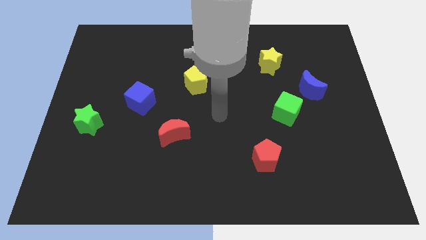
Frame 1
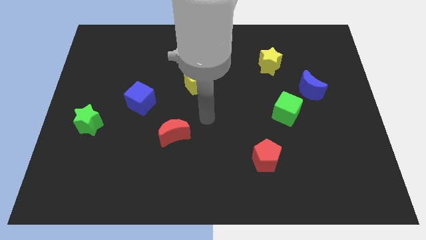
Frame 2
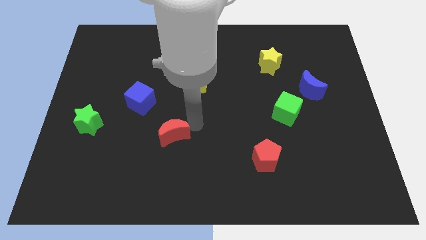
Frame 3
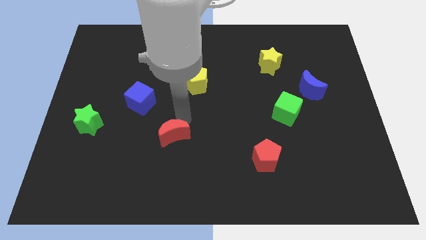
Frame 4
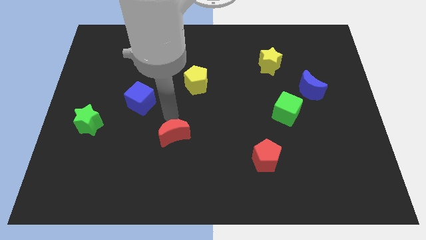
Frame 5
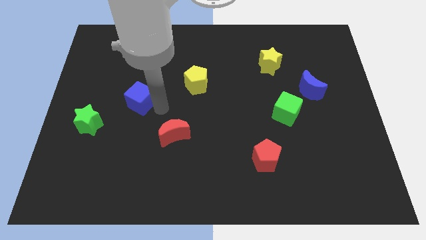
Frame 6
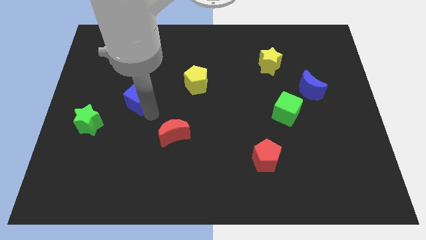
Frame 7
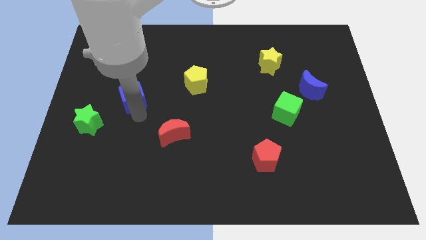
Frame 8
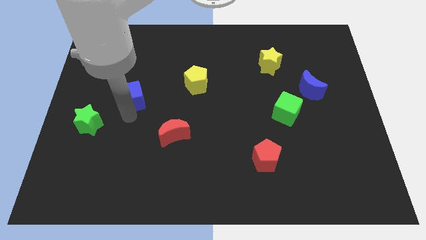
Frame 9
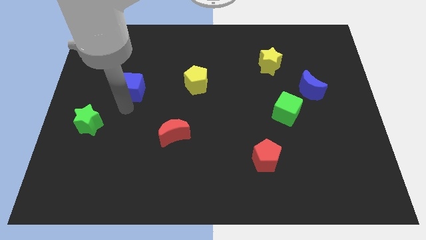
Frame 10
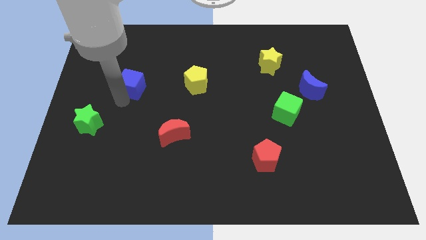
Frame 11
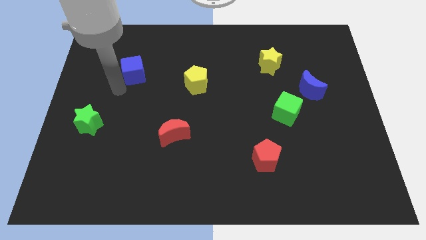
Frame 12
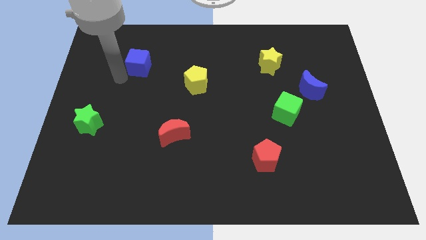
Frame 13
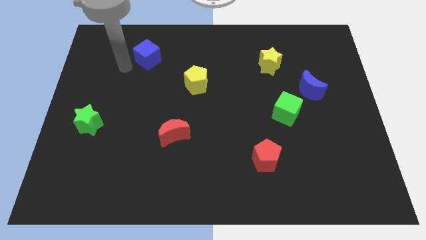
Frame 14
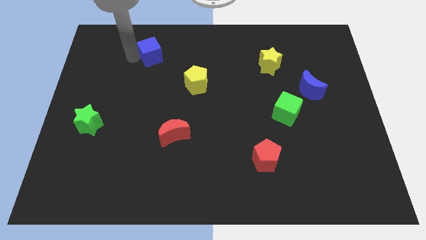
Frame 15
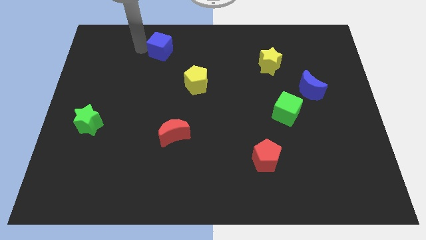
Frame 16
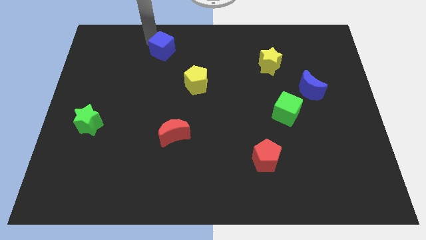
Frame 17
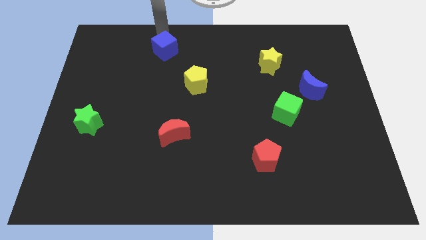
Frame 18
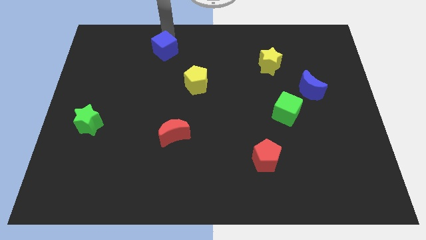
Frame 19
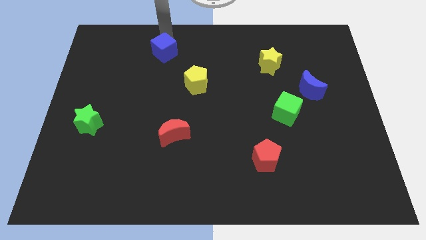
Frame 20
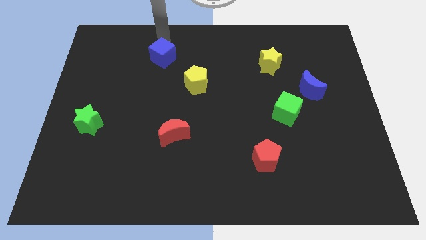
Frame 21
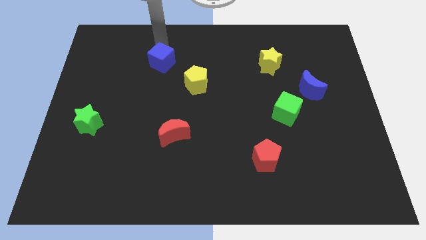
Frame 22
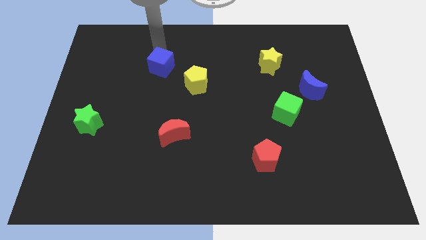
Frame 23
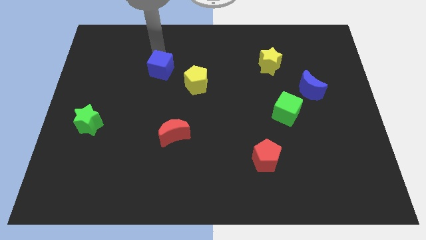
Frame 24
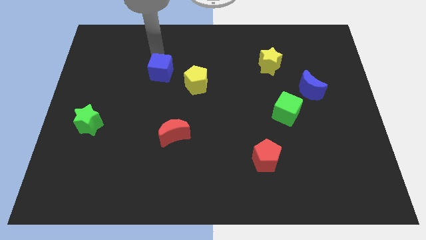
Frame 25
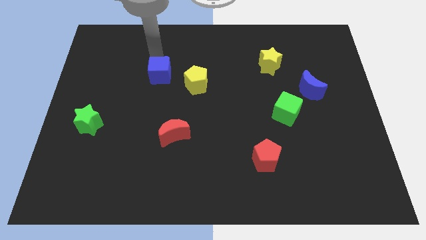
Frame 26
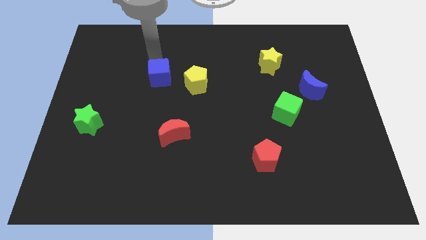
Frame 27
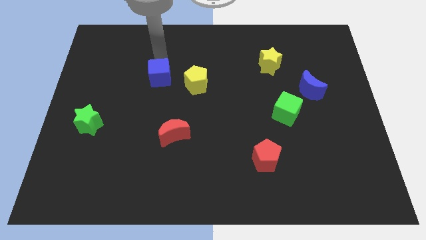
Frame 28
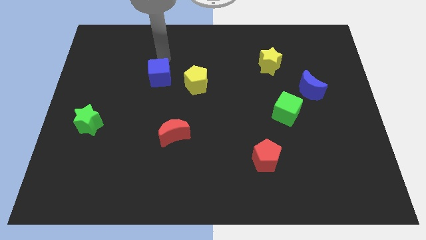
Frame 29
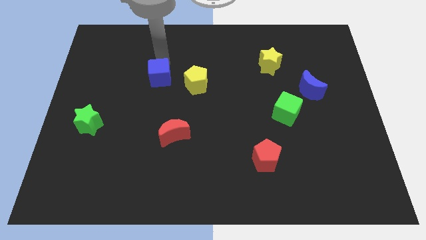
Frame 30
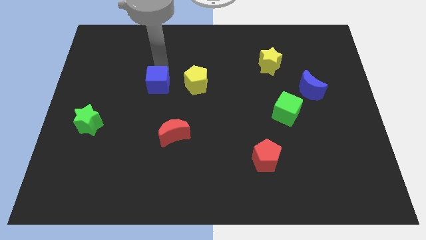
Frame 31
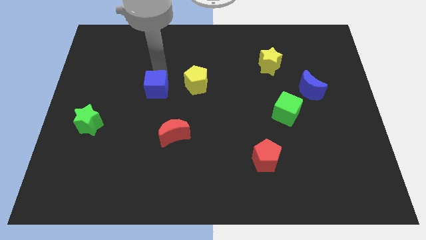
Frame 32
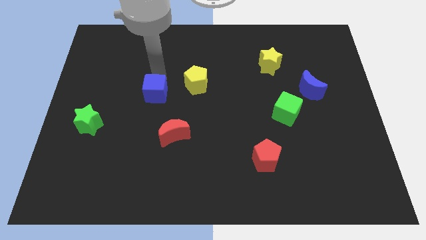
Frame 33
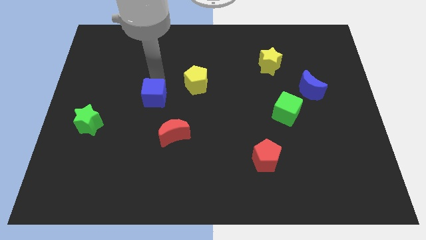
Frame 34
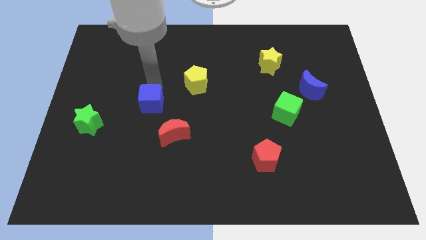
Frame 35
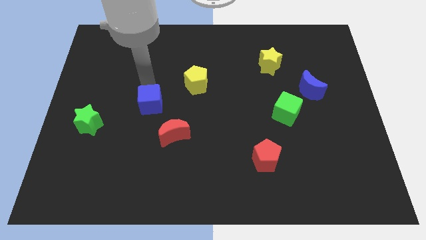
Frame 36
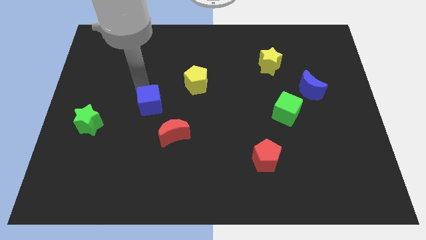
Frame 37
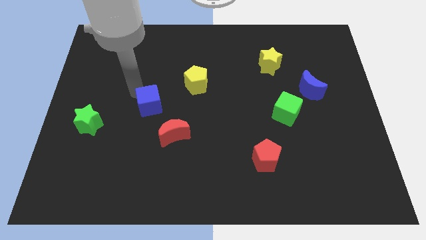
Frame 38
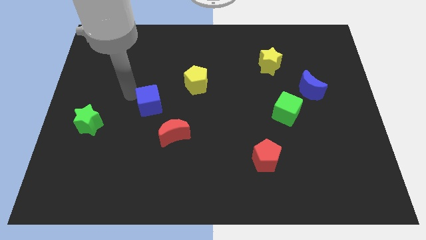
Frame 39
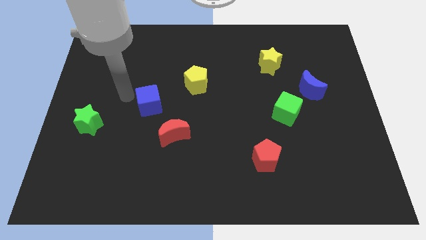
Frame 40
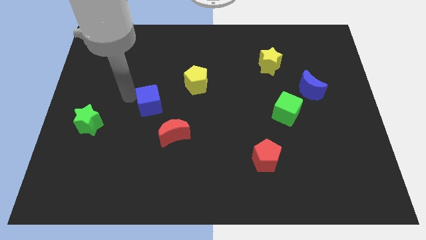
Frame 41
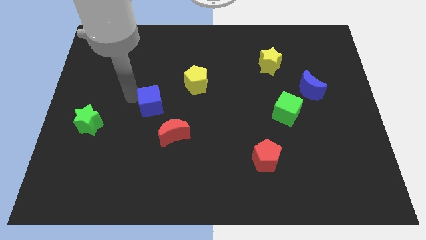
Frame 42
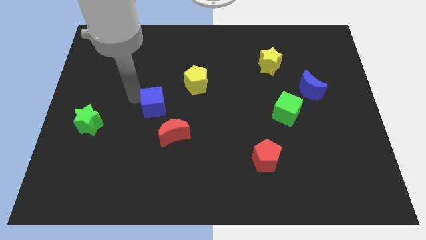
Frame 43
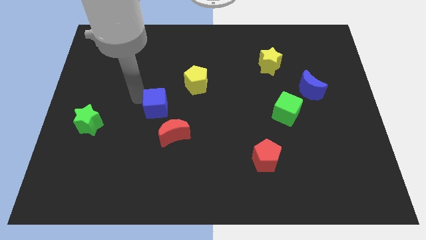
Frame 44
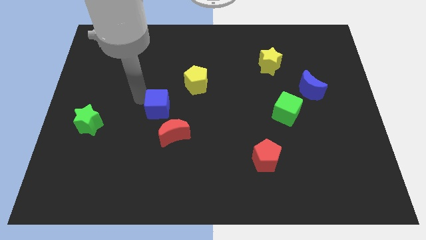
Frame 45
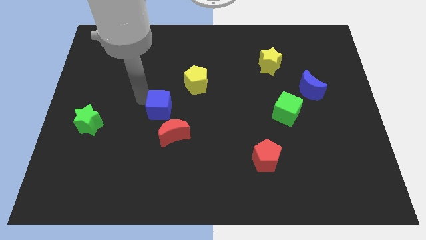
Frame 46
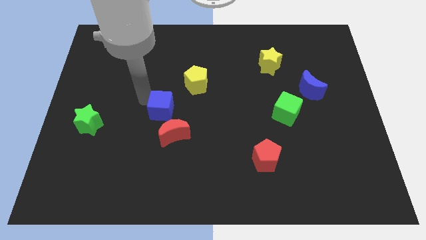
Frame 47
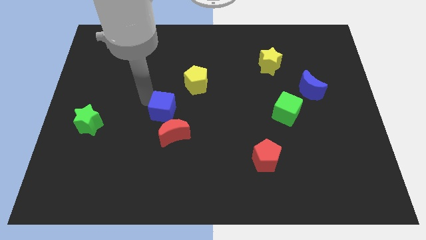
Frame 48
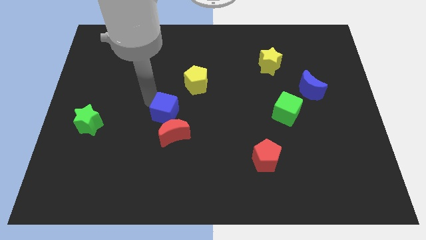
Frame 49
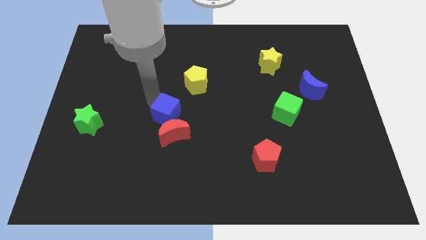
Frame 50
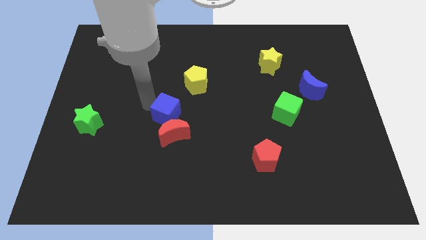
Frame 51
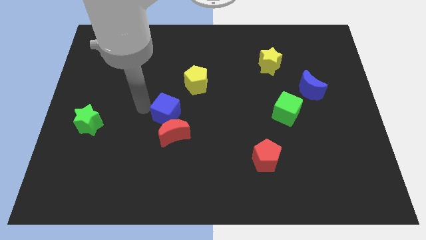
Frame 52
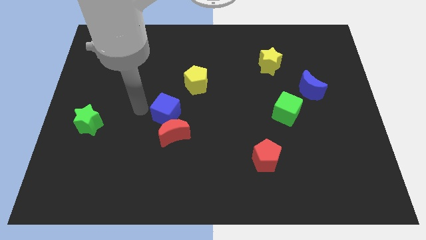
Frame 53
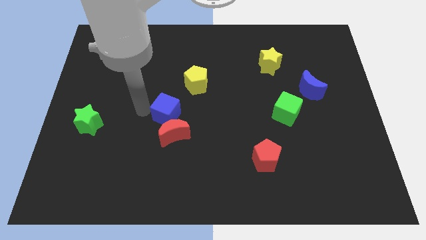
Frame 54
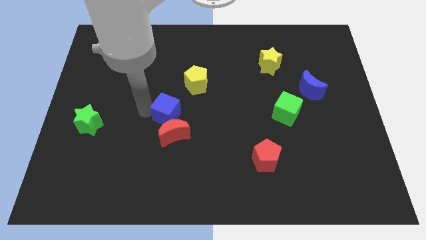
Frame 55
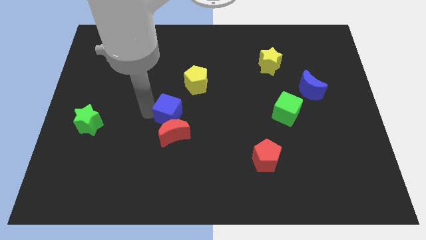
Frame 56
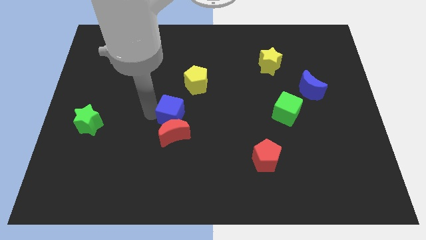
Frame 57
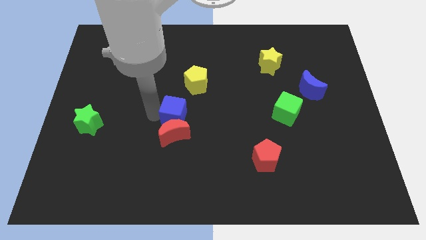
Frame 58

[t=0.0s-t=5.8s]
put the blue cube to the bottom side of the yellow pentagon

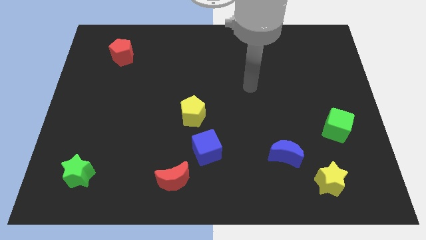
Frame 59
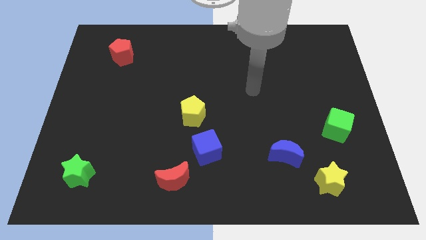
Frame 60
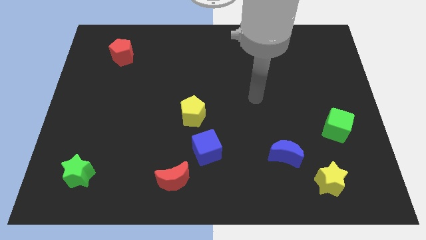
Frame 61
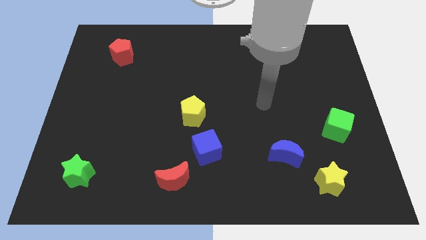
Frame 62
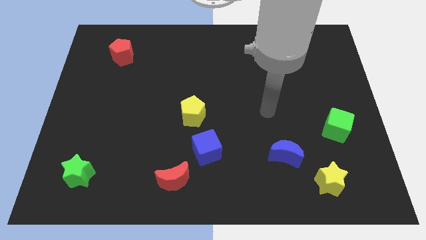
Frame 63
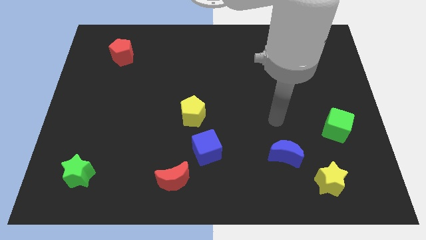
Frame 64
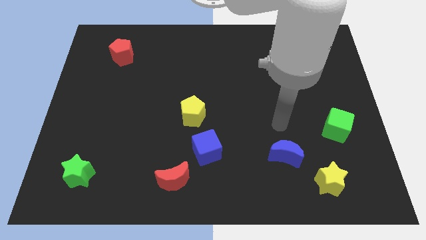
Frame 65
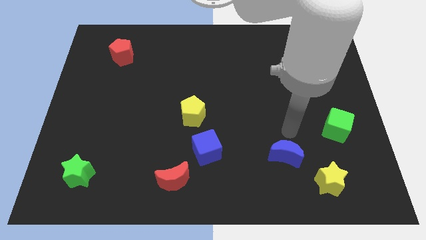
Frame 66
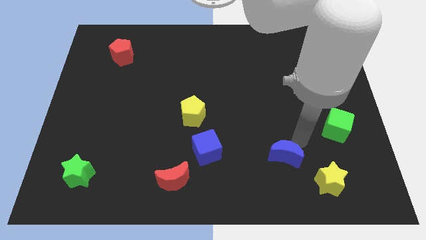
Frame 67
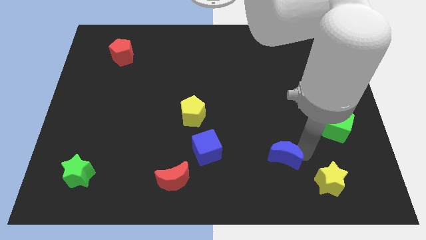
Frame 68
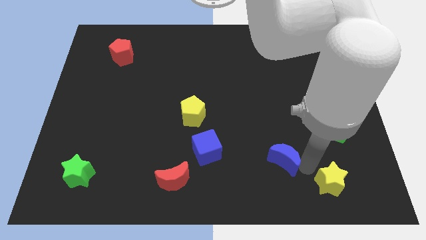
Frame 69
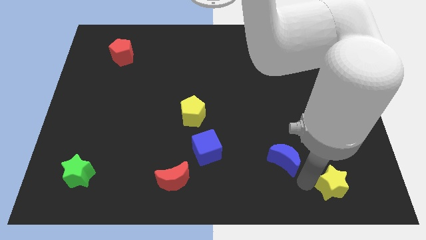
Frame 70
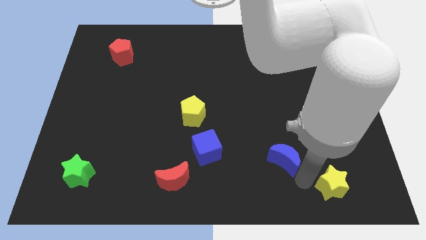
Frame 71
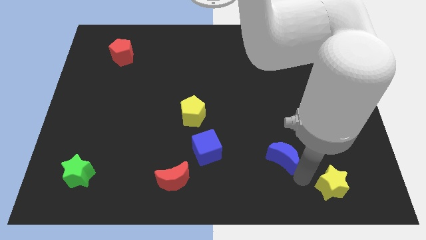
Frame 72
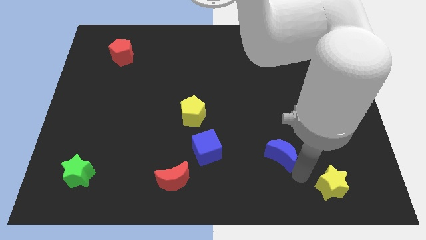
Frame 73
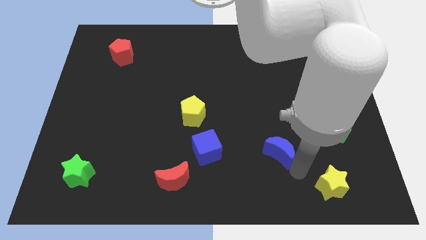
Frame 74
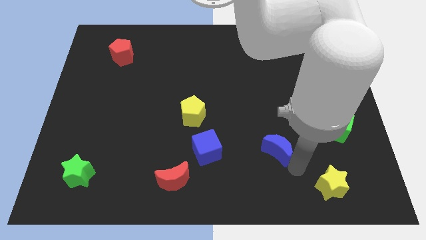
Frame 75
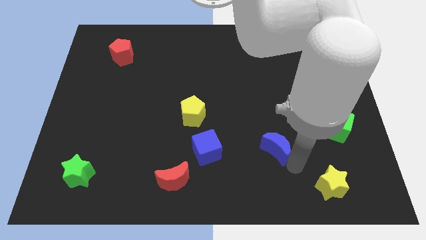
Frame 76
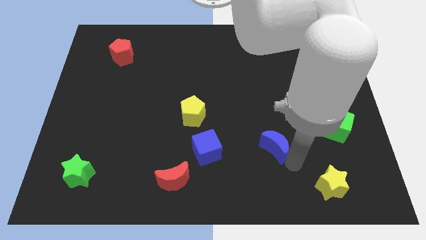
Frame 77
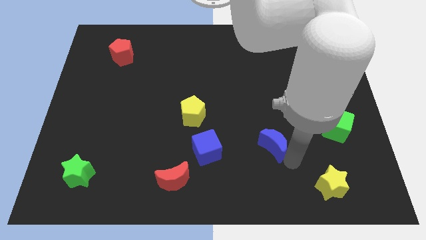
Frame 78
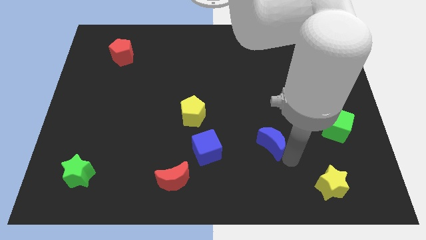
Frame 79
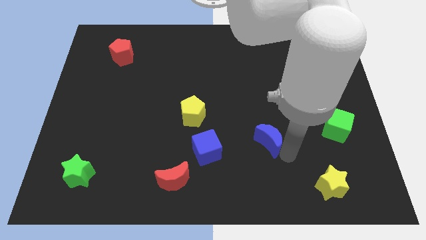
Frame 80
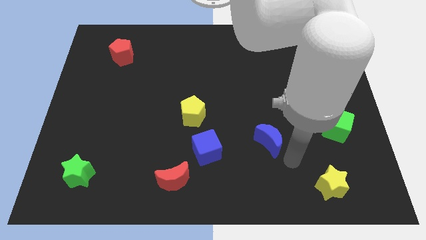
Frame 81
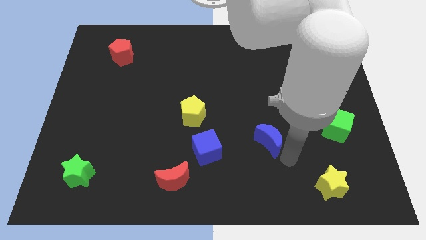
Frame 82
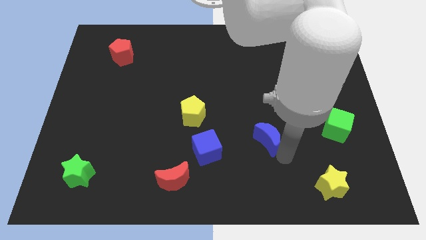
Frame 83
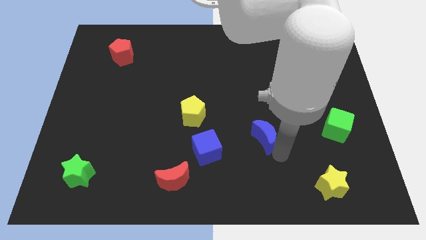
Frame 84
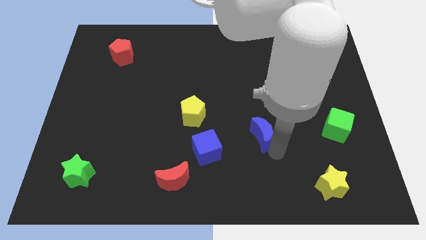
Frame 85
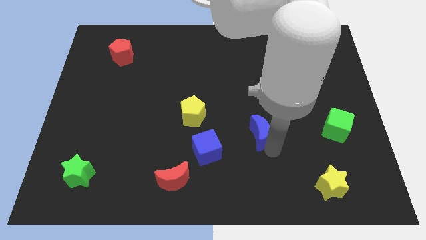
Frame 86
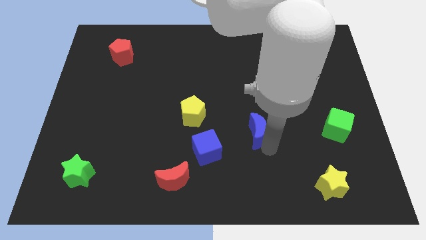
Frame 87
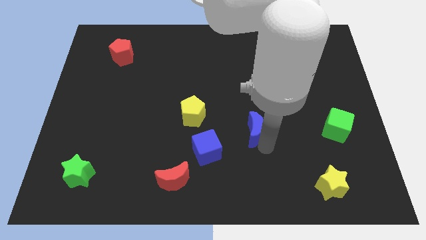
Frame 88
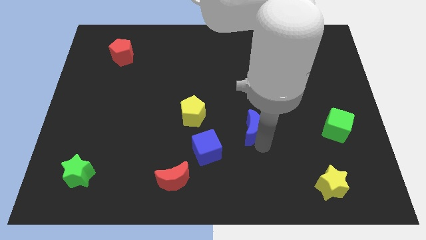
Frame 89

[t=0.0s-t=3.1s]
slide the blue moon just right of the yellow pentagon
